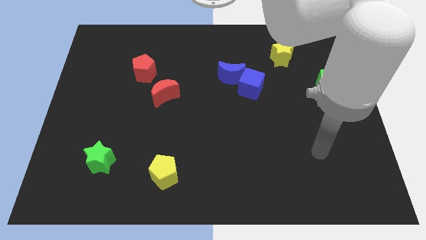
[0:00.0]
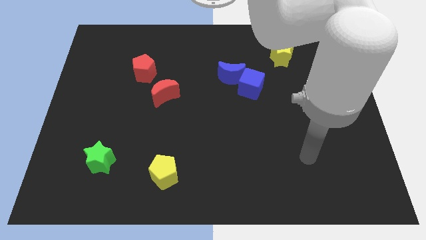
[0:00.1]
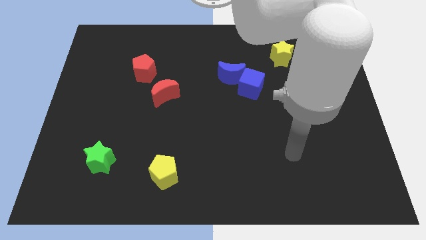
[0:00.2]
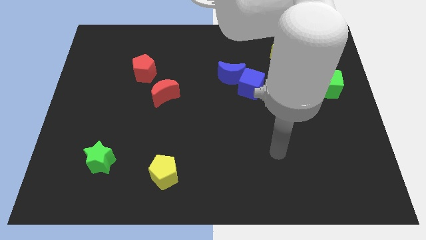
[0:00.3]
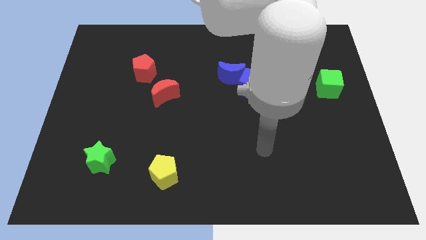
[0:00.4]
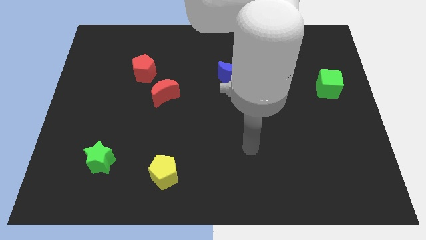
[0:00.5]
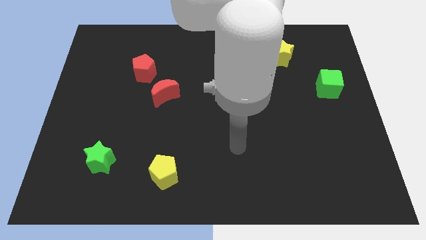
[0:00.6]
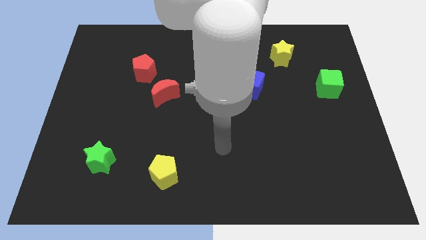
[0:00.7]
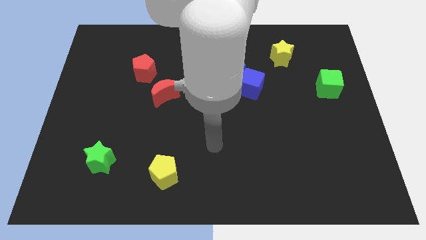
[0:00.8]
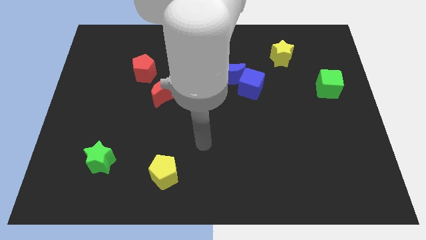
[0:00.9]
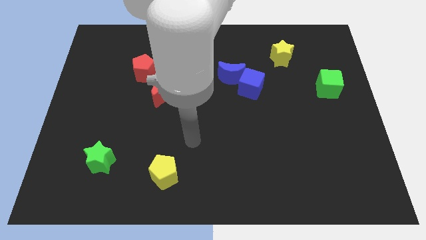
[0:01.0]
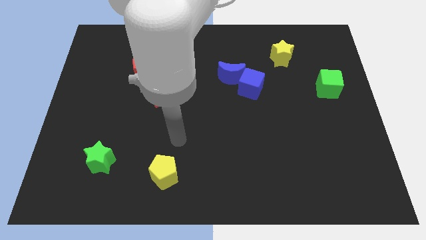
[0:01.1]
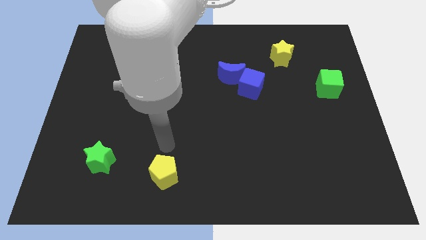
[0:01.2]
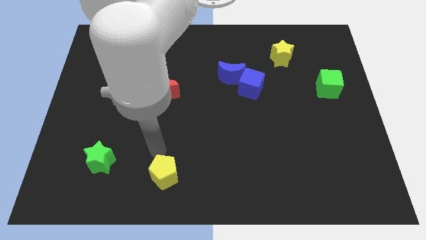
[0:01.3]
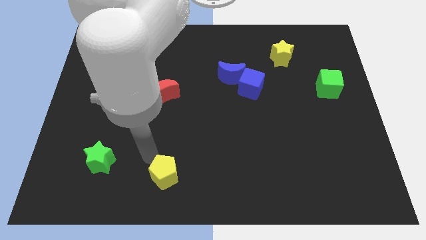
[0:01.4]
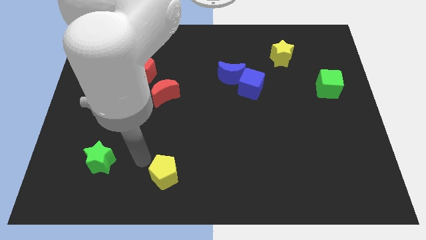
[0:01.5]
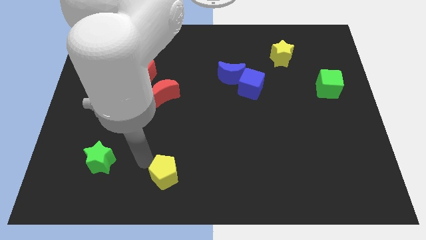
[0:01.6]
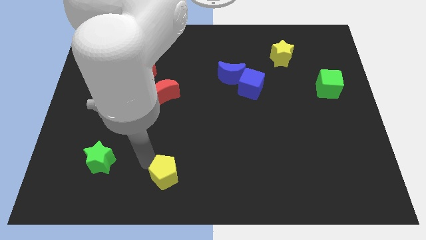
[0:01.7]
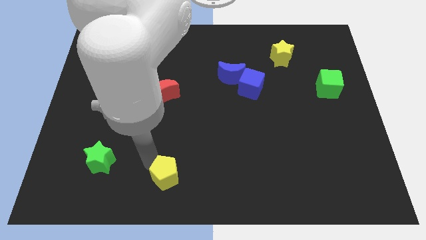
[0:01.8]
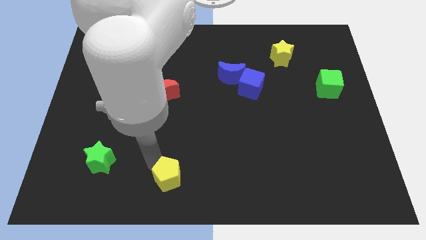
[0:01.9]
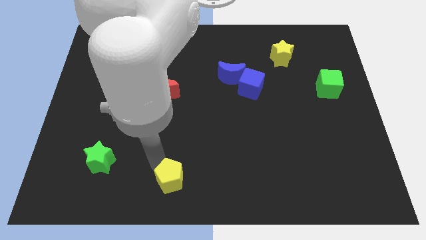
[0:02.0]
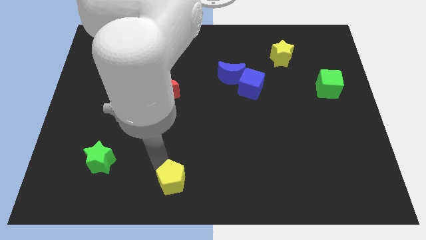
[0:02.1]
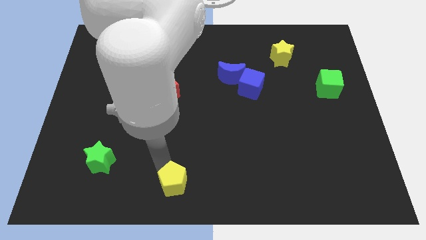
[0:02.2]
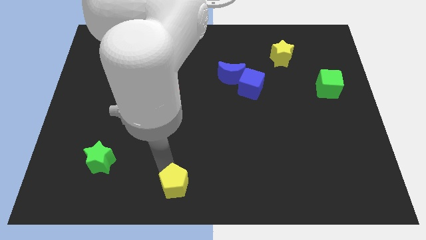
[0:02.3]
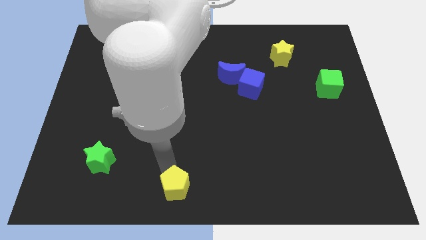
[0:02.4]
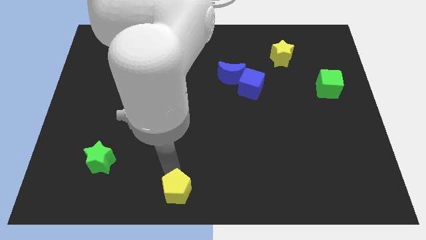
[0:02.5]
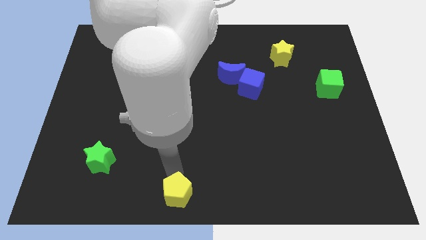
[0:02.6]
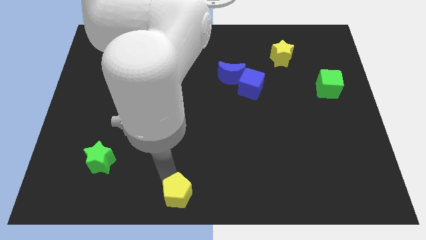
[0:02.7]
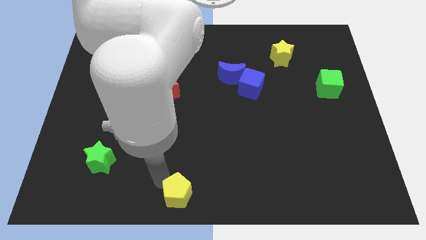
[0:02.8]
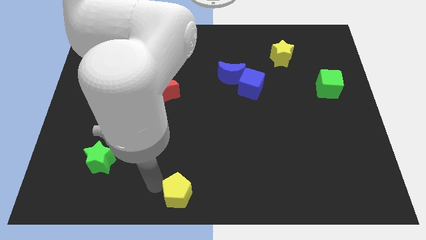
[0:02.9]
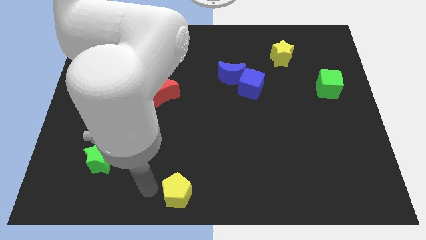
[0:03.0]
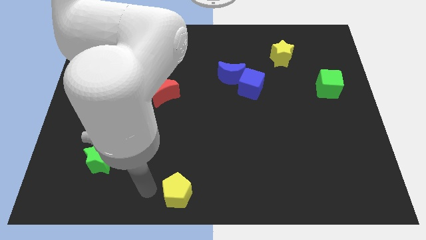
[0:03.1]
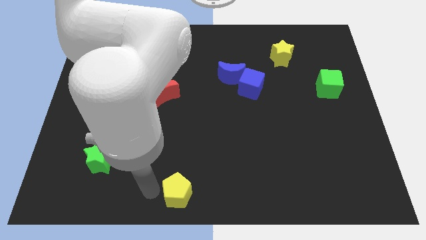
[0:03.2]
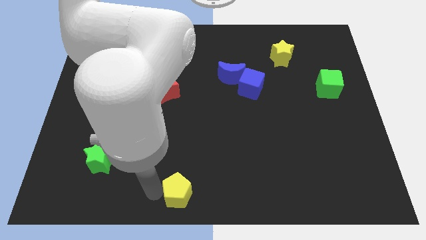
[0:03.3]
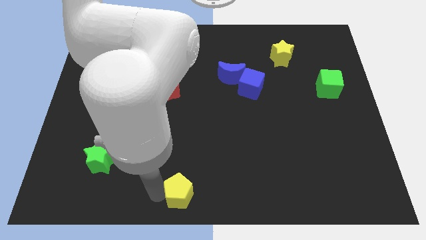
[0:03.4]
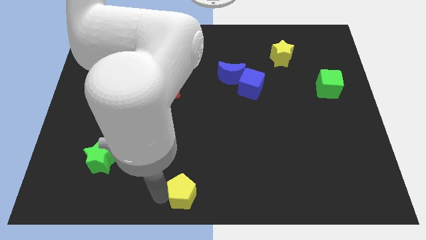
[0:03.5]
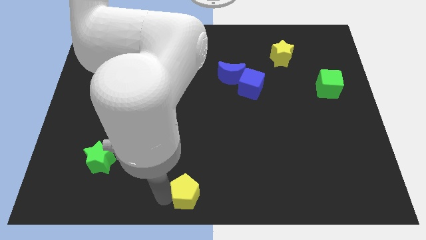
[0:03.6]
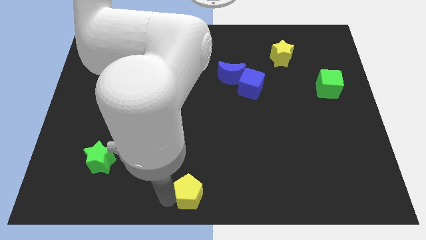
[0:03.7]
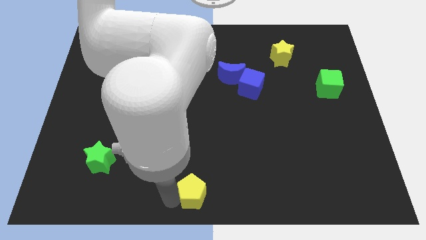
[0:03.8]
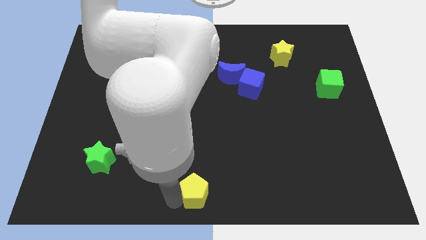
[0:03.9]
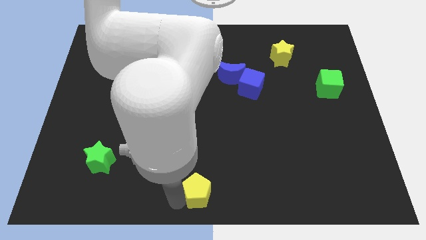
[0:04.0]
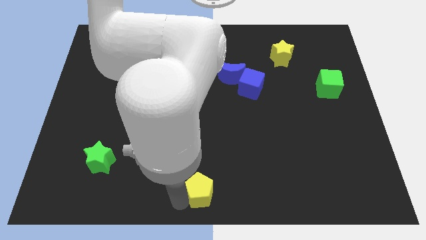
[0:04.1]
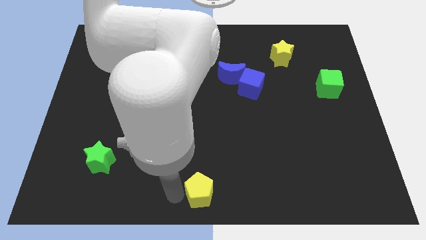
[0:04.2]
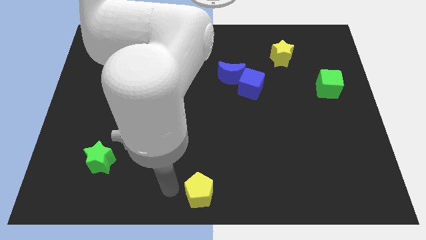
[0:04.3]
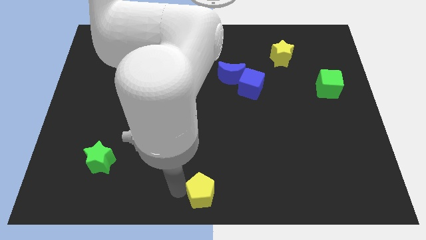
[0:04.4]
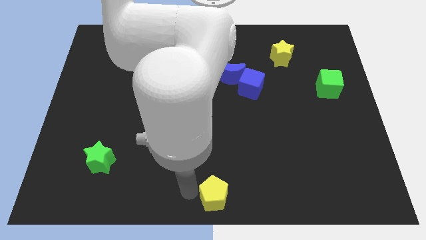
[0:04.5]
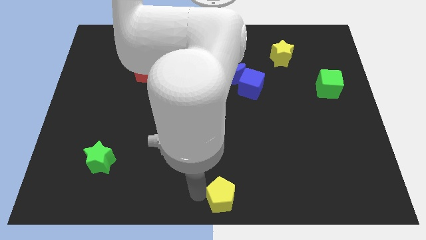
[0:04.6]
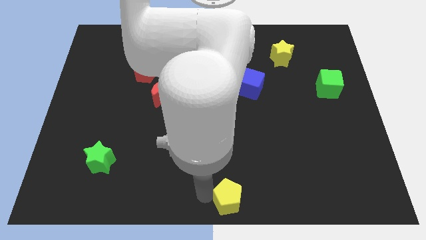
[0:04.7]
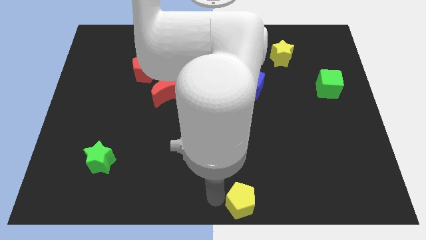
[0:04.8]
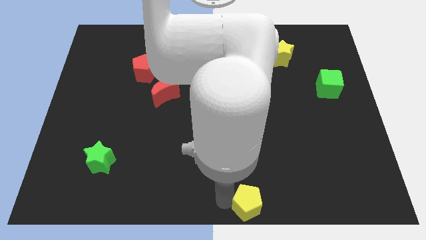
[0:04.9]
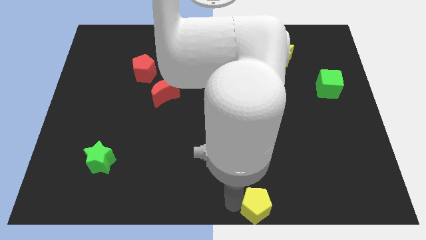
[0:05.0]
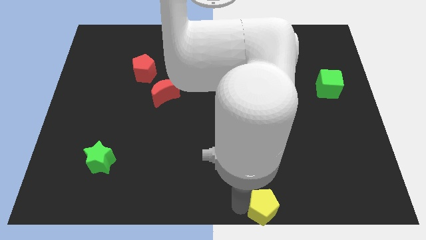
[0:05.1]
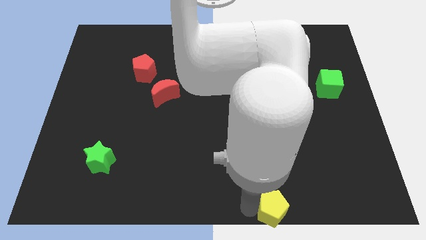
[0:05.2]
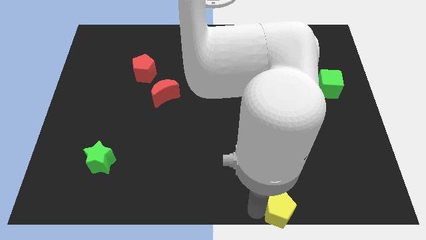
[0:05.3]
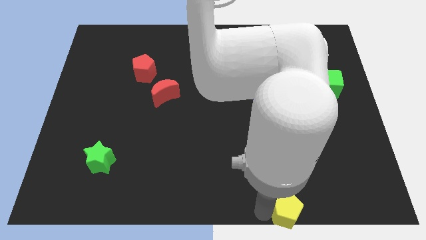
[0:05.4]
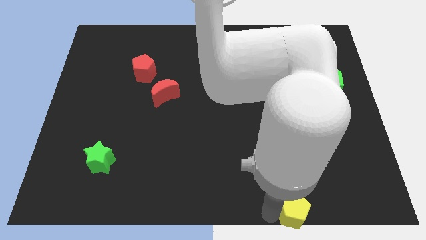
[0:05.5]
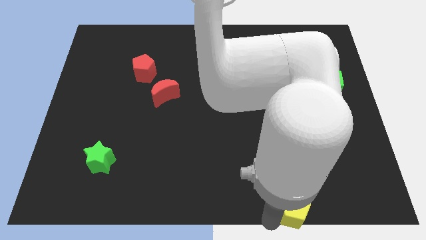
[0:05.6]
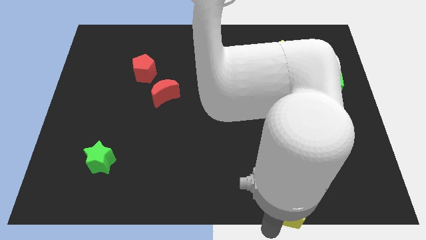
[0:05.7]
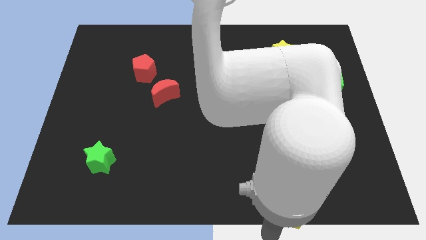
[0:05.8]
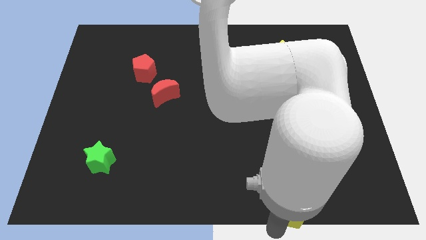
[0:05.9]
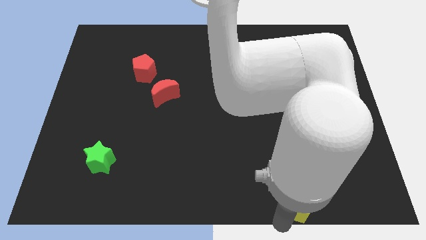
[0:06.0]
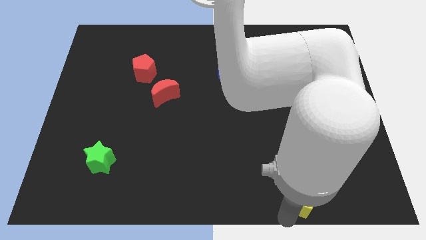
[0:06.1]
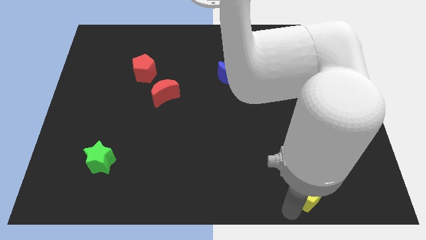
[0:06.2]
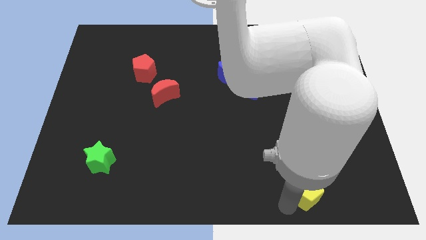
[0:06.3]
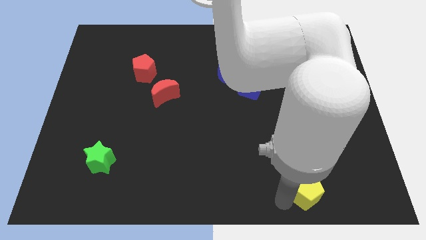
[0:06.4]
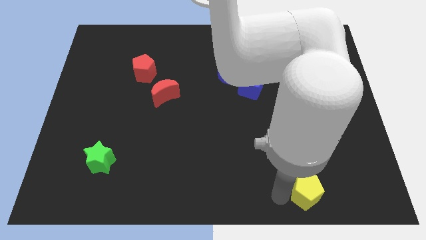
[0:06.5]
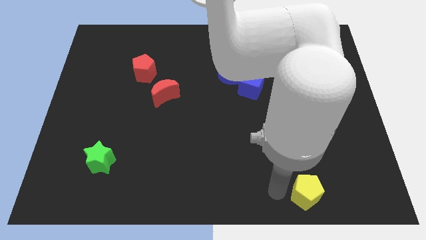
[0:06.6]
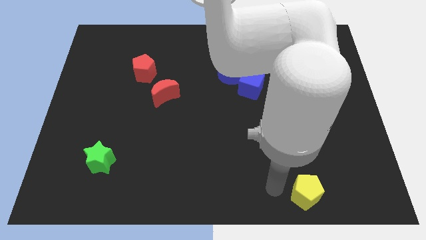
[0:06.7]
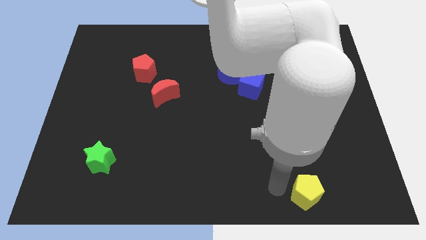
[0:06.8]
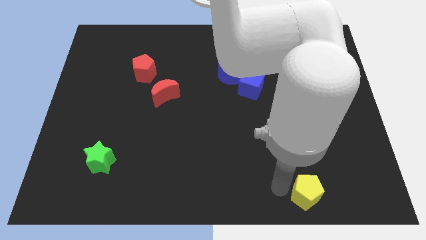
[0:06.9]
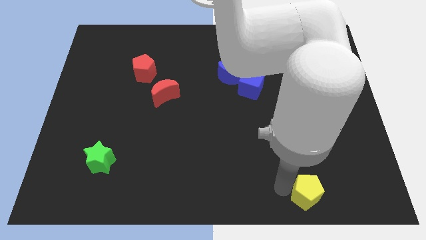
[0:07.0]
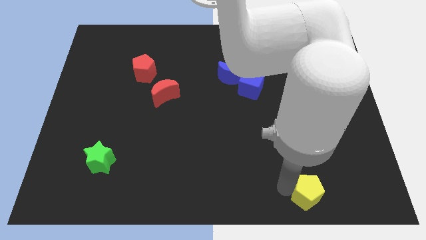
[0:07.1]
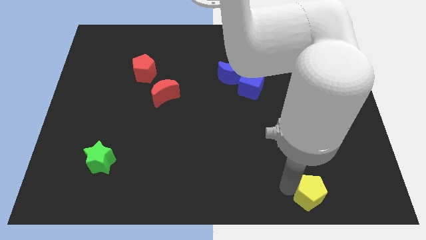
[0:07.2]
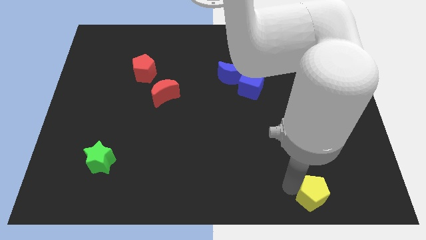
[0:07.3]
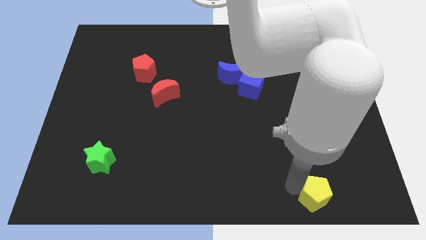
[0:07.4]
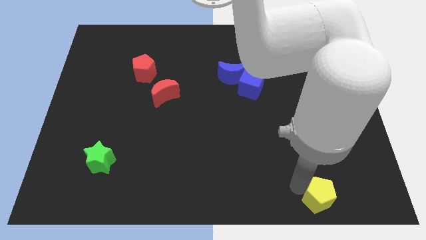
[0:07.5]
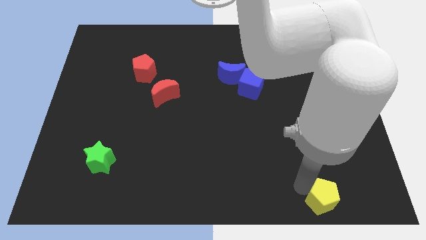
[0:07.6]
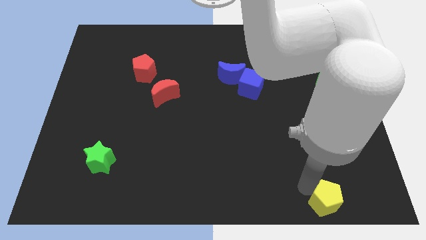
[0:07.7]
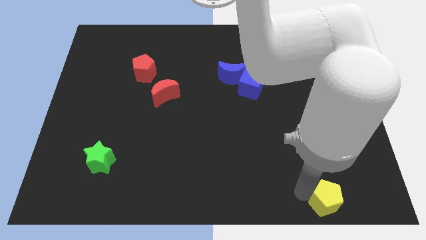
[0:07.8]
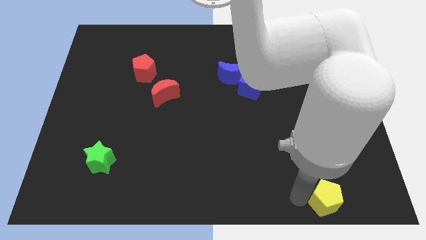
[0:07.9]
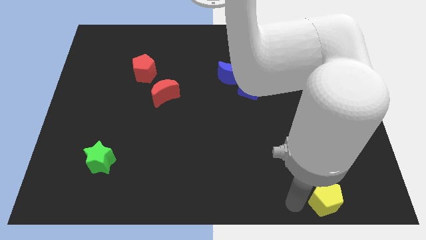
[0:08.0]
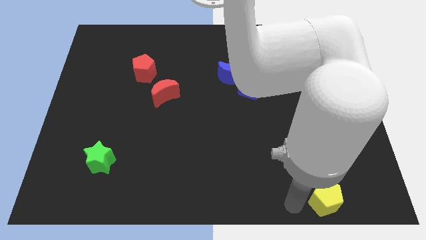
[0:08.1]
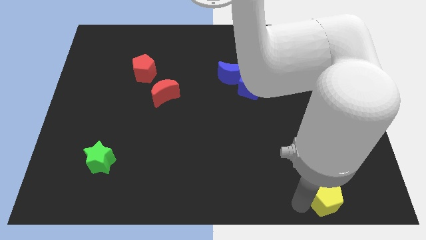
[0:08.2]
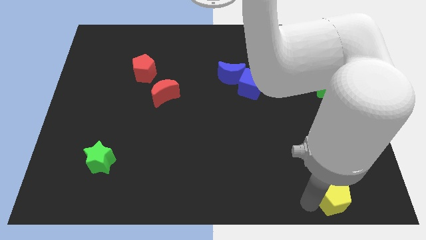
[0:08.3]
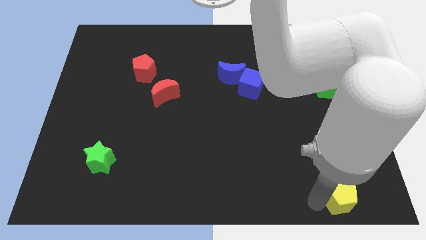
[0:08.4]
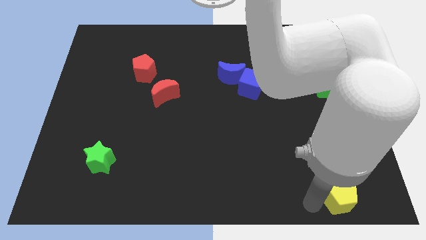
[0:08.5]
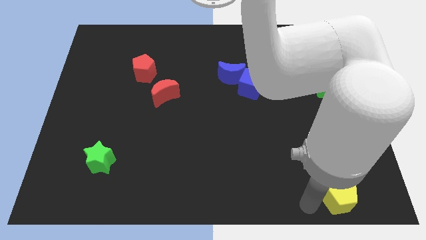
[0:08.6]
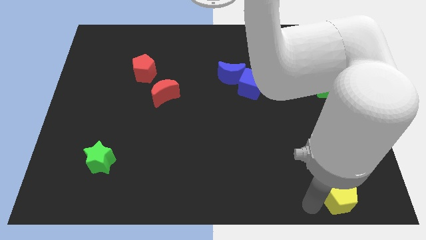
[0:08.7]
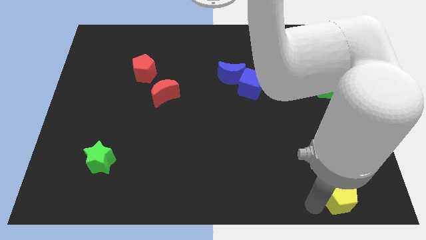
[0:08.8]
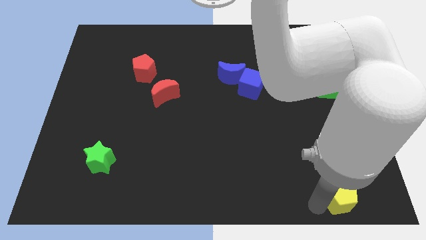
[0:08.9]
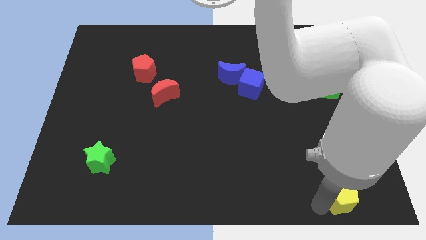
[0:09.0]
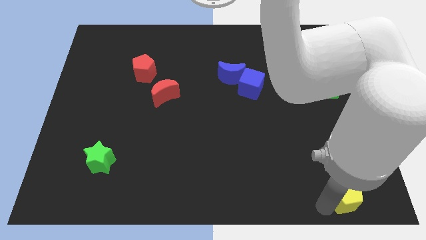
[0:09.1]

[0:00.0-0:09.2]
put the yellow pentagon to the bottom right of the board
